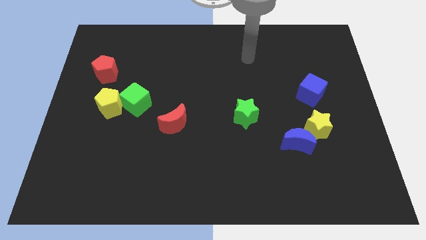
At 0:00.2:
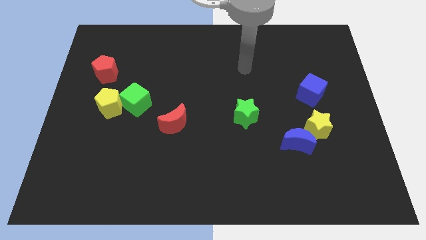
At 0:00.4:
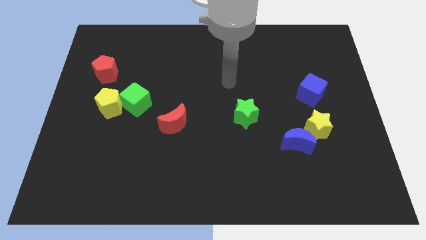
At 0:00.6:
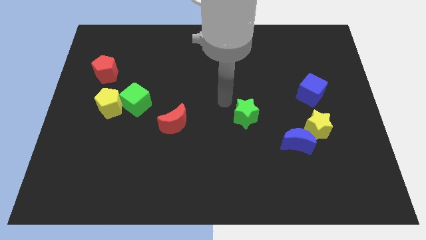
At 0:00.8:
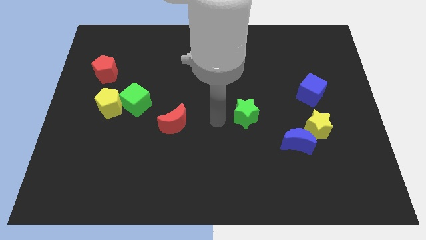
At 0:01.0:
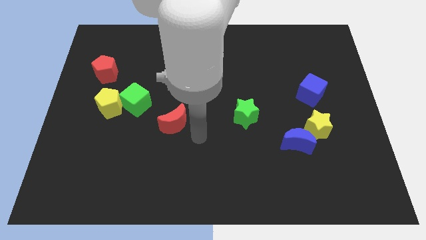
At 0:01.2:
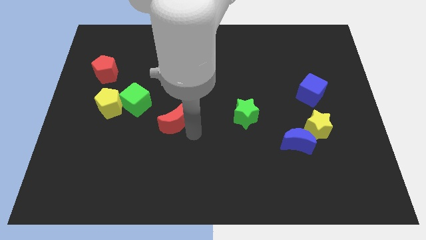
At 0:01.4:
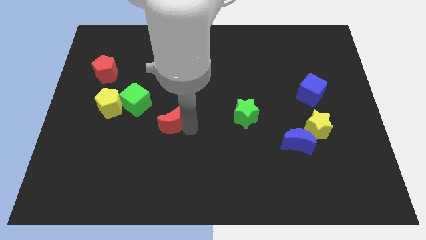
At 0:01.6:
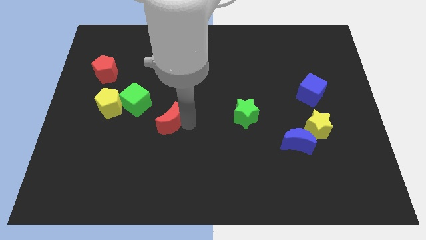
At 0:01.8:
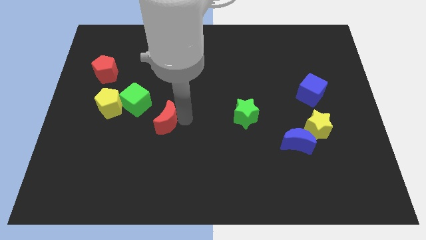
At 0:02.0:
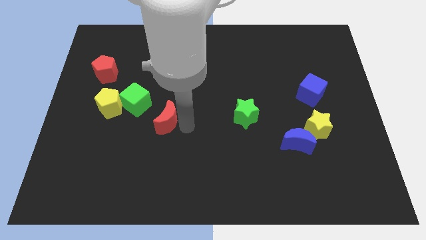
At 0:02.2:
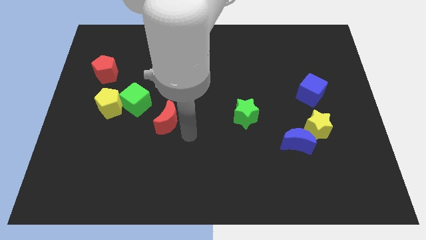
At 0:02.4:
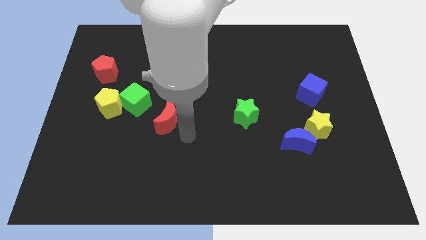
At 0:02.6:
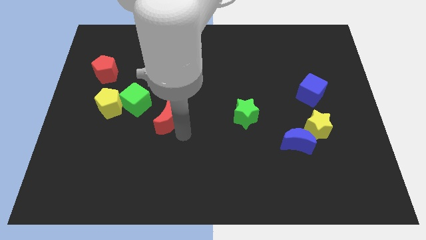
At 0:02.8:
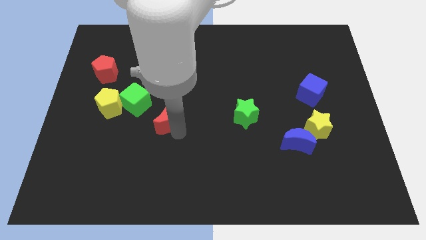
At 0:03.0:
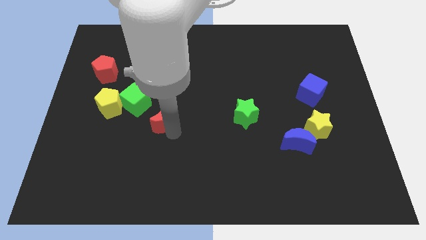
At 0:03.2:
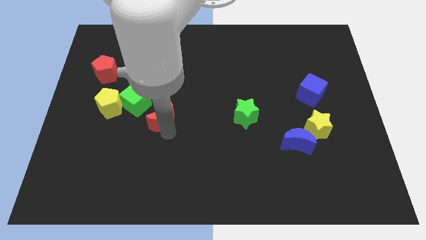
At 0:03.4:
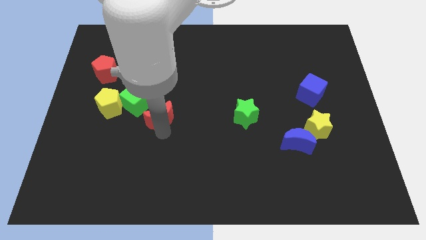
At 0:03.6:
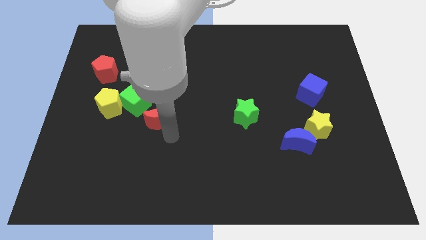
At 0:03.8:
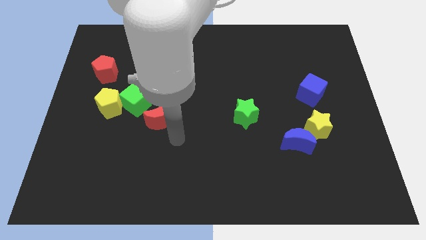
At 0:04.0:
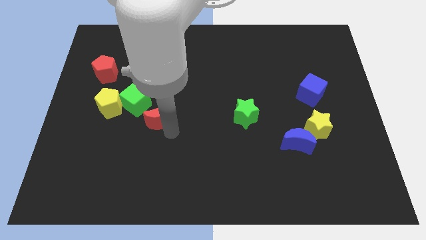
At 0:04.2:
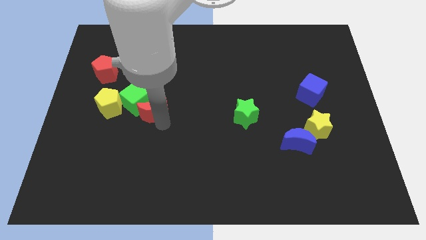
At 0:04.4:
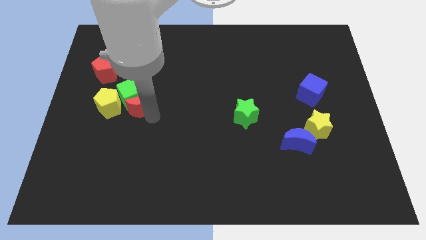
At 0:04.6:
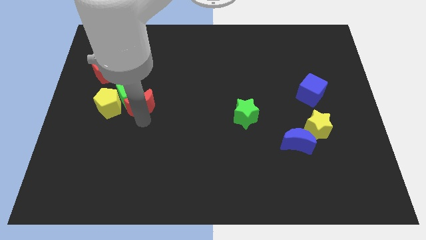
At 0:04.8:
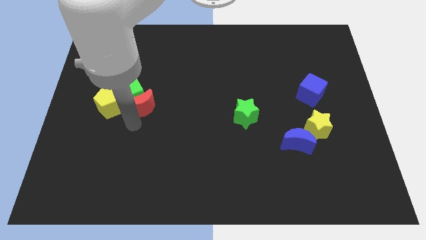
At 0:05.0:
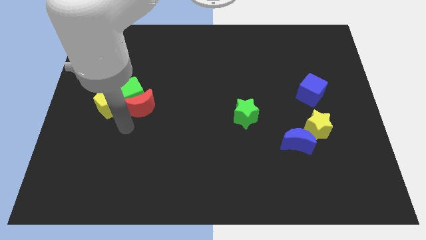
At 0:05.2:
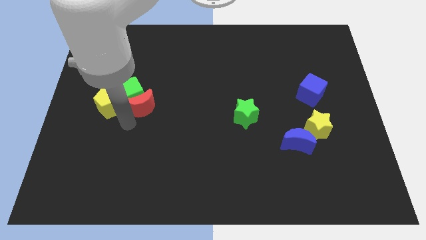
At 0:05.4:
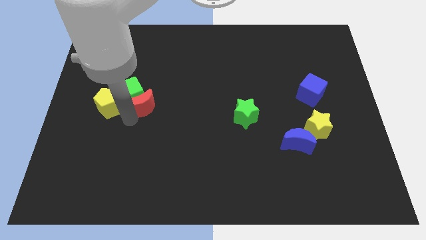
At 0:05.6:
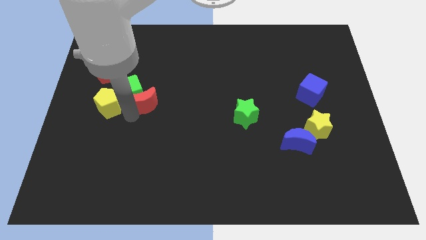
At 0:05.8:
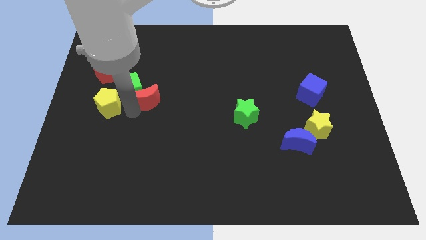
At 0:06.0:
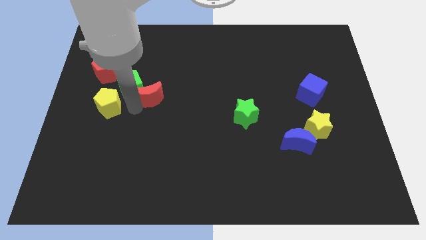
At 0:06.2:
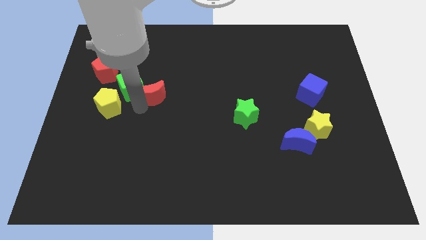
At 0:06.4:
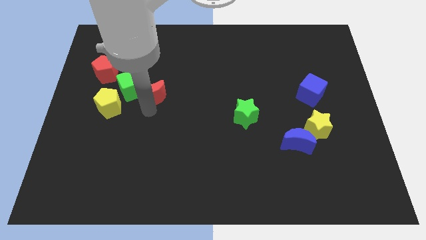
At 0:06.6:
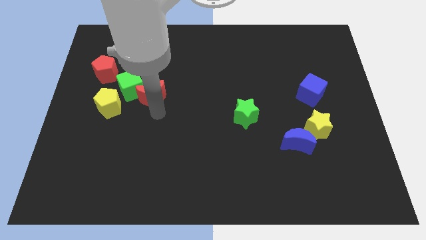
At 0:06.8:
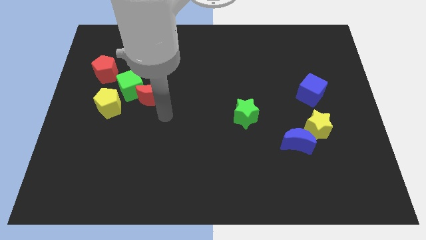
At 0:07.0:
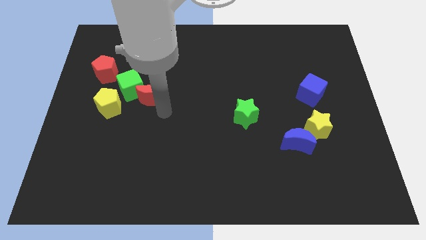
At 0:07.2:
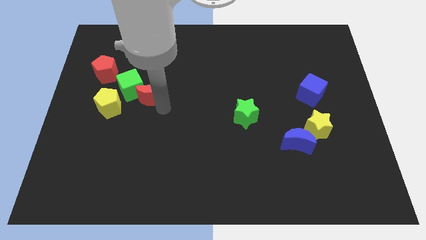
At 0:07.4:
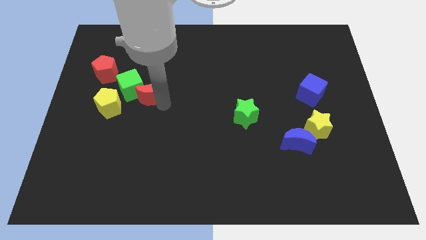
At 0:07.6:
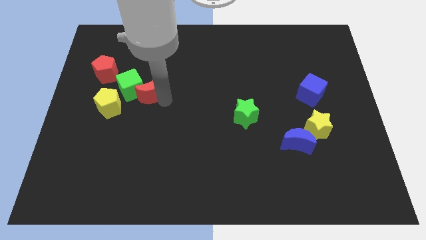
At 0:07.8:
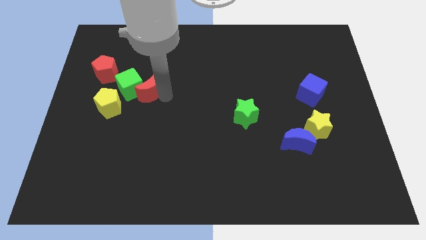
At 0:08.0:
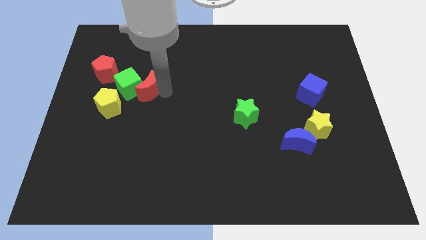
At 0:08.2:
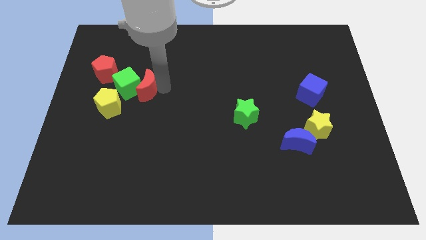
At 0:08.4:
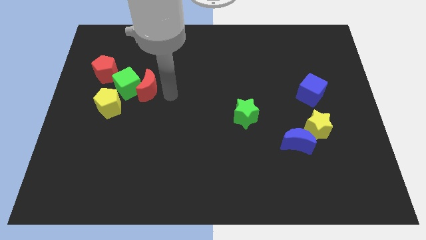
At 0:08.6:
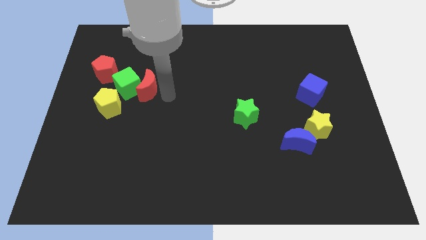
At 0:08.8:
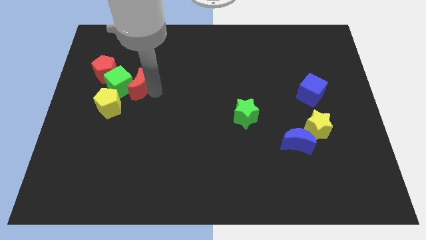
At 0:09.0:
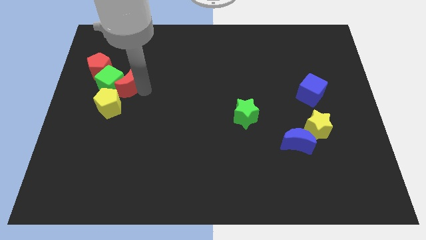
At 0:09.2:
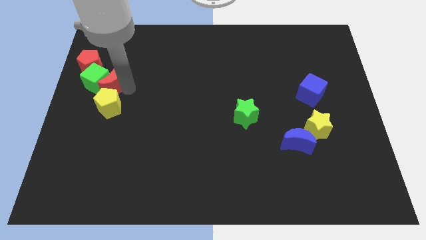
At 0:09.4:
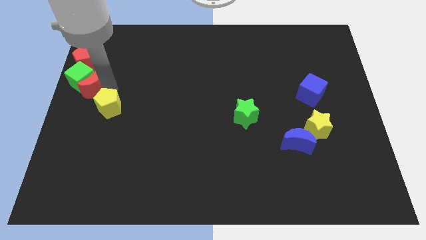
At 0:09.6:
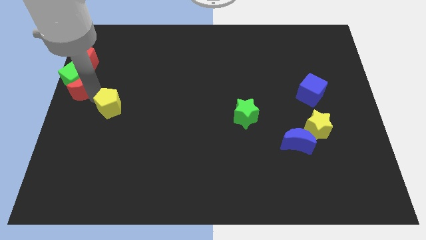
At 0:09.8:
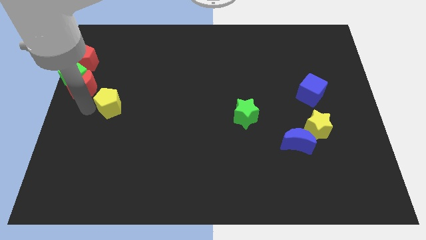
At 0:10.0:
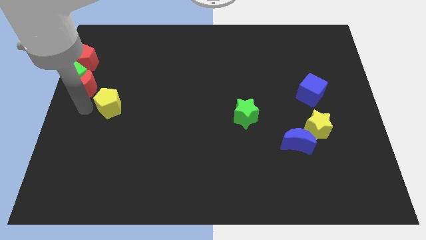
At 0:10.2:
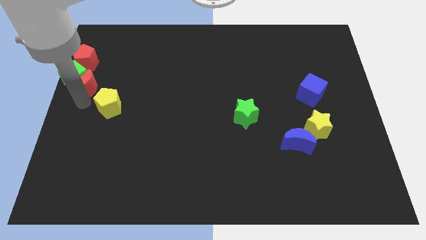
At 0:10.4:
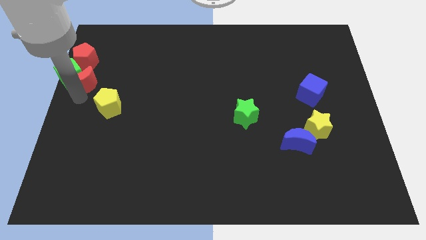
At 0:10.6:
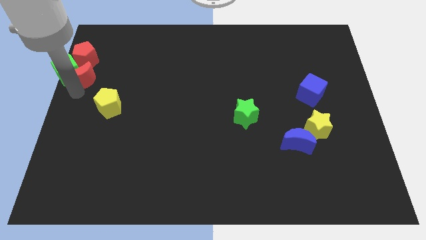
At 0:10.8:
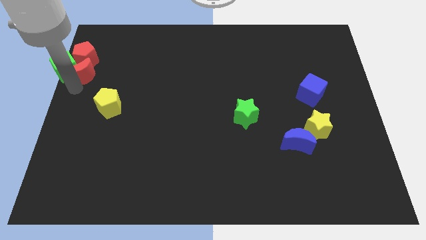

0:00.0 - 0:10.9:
slide the red moon towards the red pentagon

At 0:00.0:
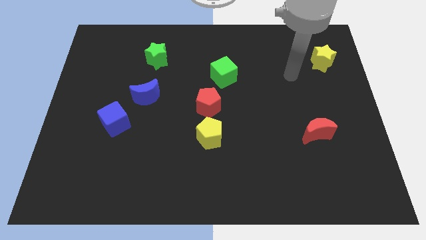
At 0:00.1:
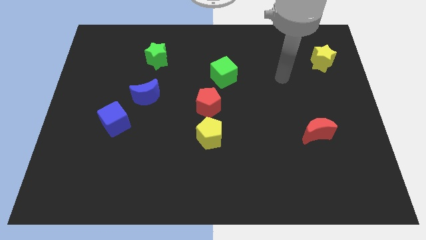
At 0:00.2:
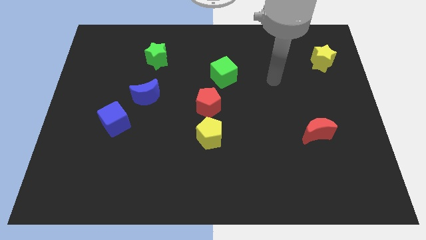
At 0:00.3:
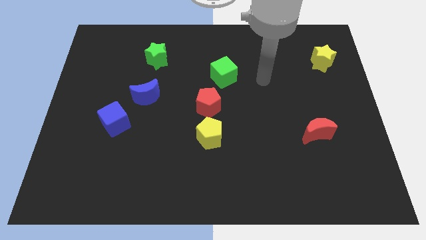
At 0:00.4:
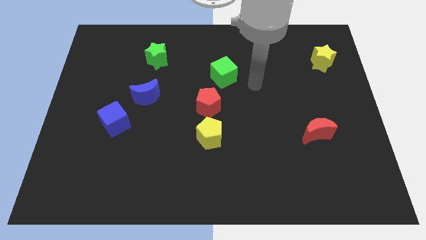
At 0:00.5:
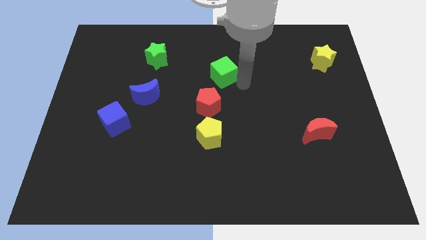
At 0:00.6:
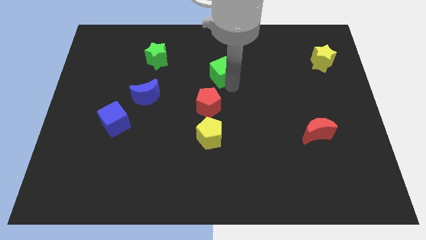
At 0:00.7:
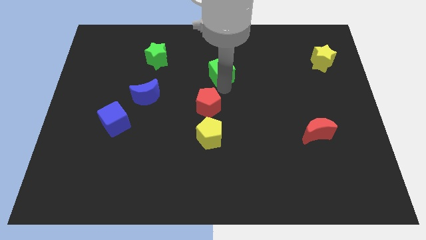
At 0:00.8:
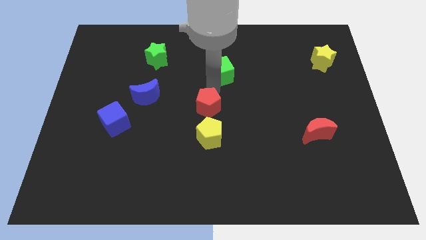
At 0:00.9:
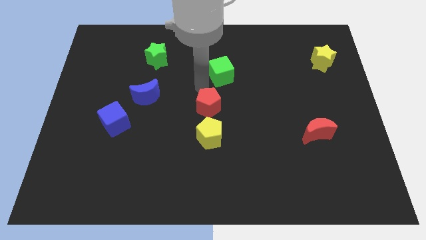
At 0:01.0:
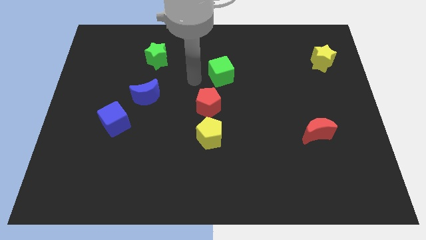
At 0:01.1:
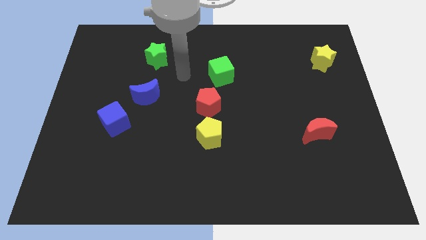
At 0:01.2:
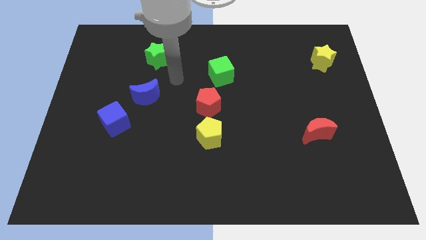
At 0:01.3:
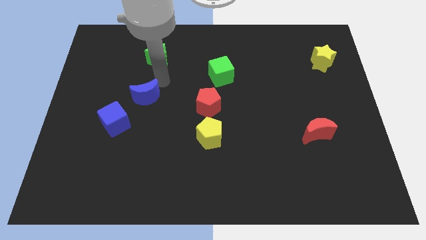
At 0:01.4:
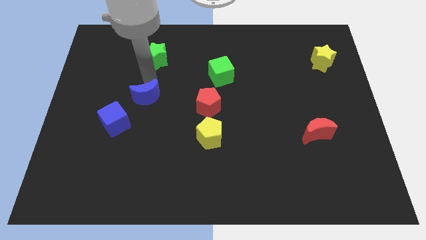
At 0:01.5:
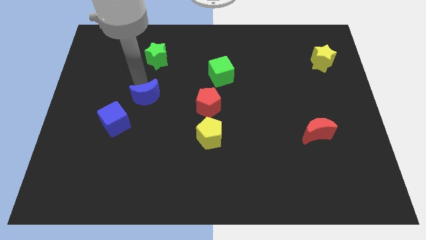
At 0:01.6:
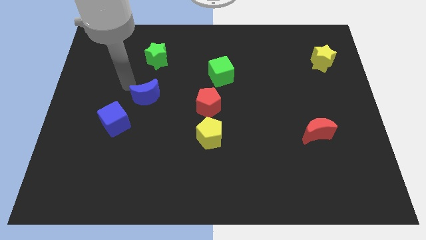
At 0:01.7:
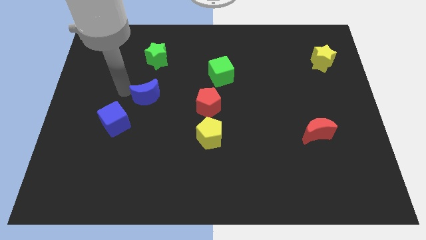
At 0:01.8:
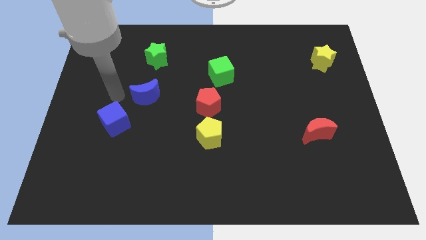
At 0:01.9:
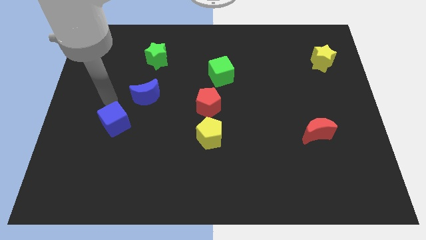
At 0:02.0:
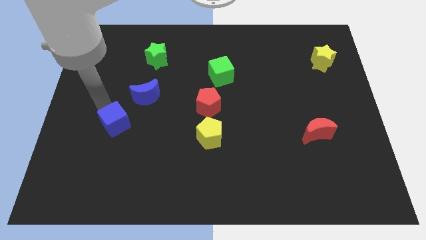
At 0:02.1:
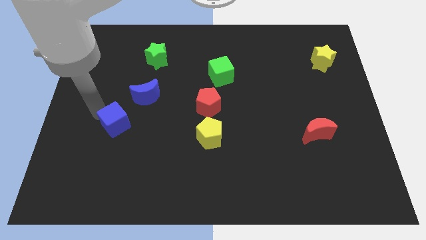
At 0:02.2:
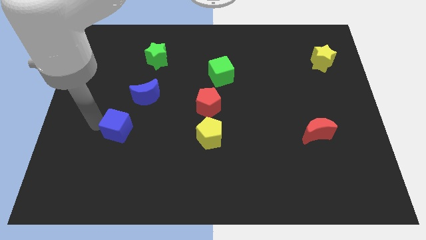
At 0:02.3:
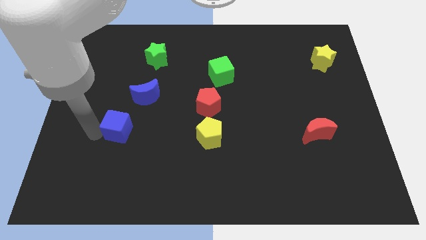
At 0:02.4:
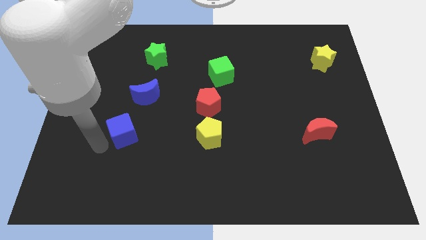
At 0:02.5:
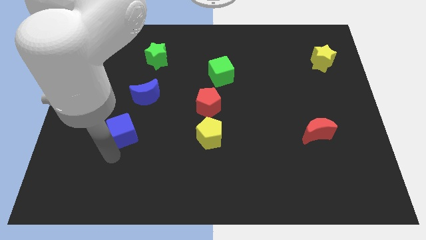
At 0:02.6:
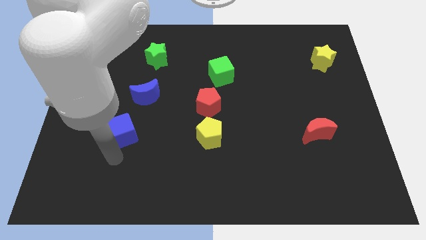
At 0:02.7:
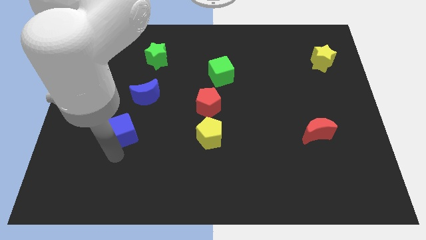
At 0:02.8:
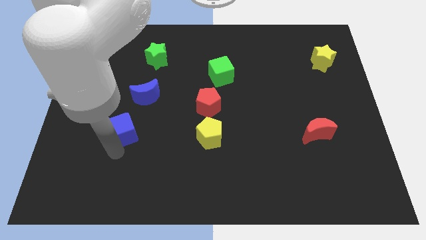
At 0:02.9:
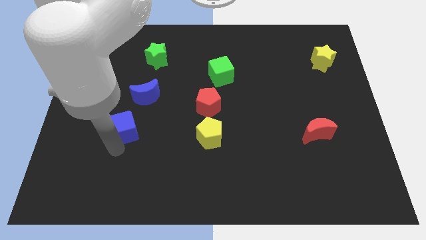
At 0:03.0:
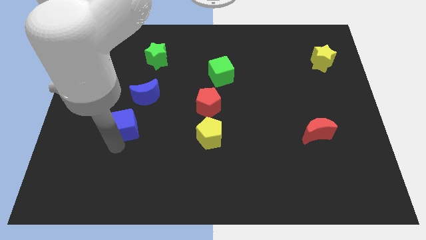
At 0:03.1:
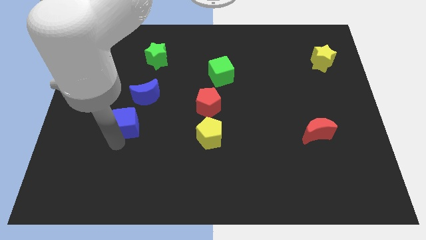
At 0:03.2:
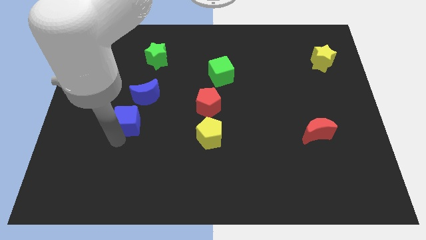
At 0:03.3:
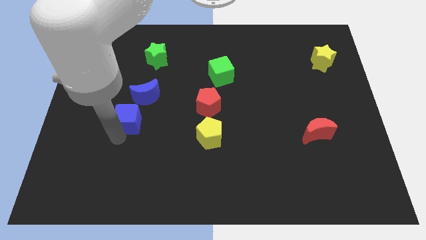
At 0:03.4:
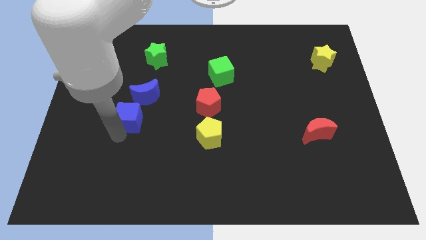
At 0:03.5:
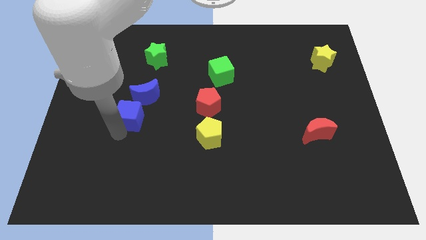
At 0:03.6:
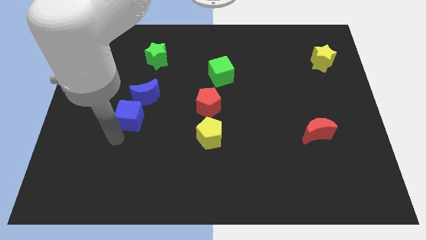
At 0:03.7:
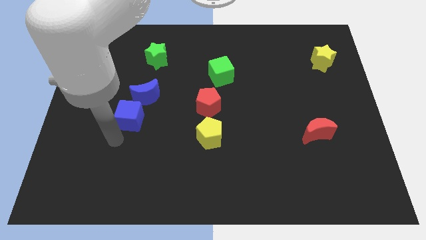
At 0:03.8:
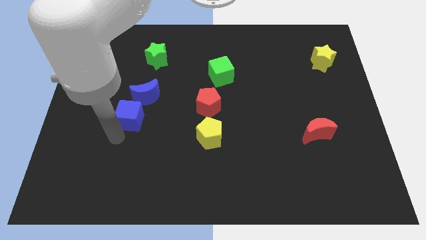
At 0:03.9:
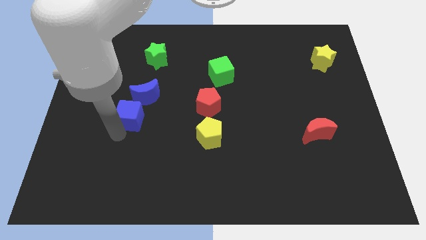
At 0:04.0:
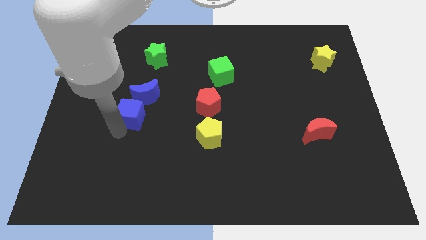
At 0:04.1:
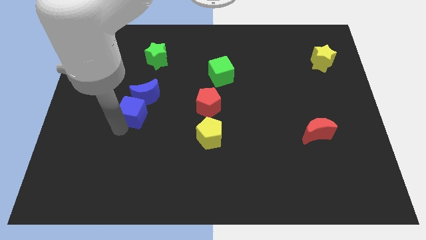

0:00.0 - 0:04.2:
slide the blue cube towards the blue moon
